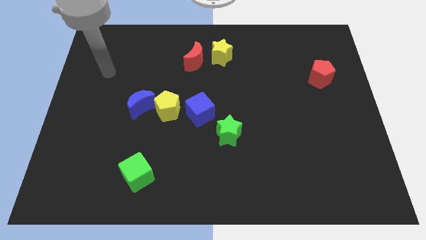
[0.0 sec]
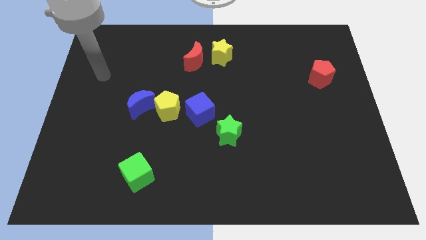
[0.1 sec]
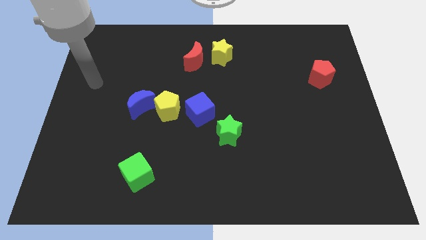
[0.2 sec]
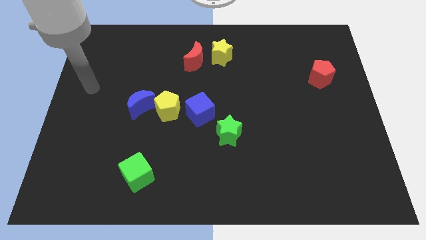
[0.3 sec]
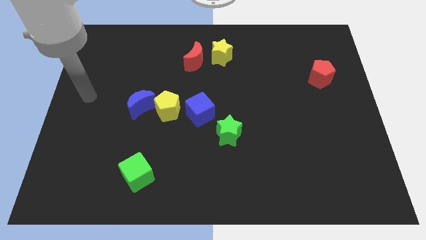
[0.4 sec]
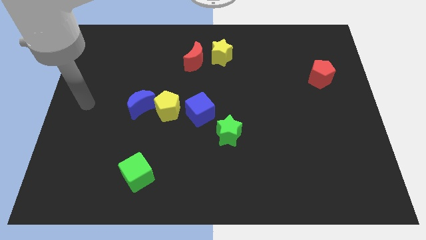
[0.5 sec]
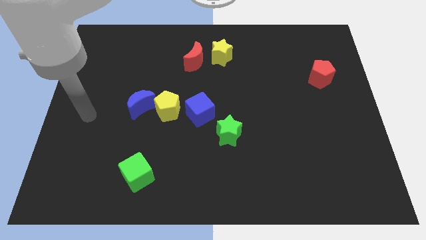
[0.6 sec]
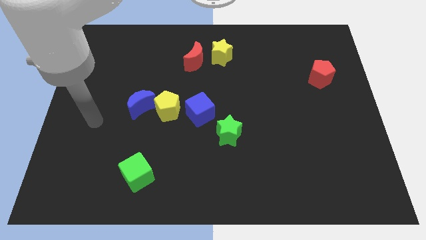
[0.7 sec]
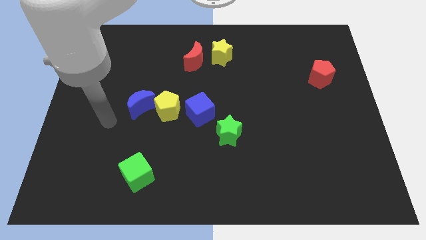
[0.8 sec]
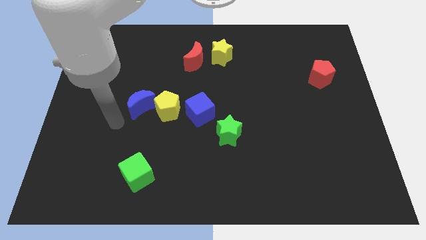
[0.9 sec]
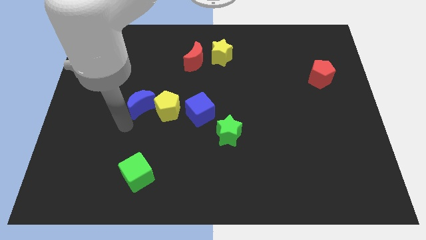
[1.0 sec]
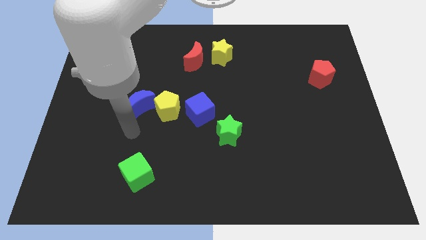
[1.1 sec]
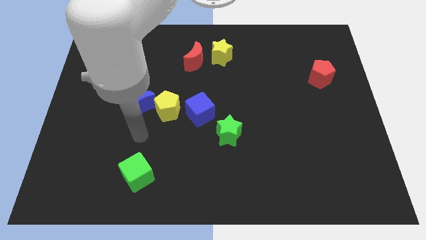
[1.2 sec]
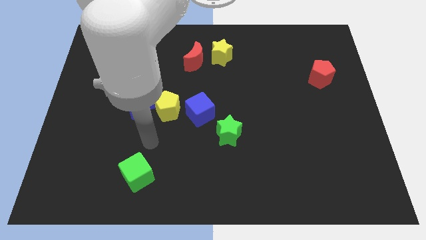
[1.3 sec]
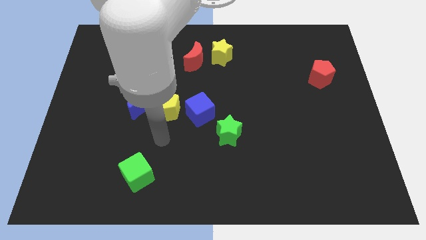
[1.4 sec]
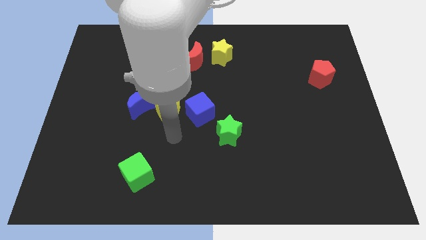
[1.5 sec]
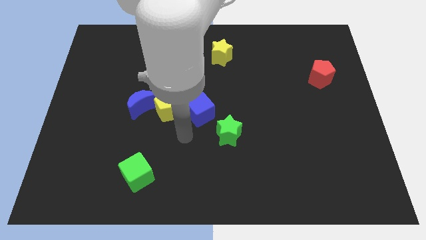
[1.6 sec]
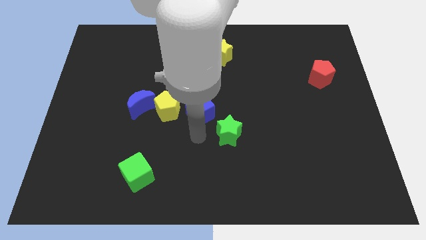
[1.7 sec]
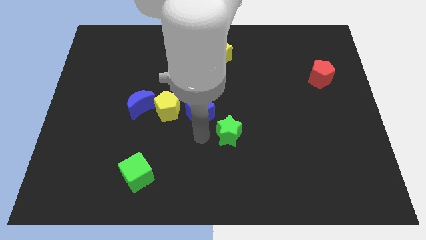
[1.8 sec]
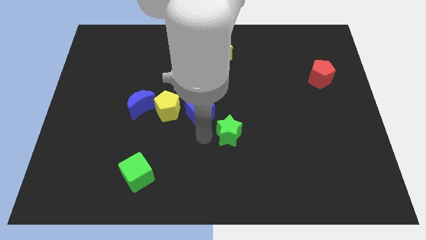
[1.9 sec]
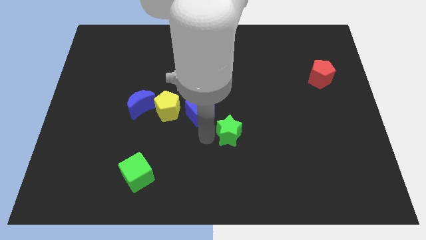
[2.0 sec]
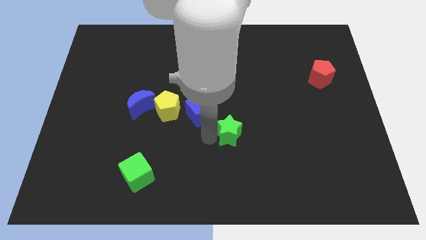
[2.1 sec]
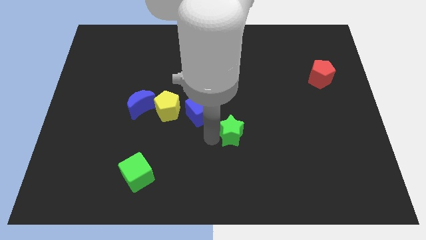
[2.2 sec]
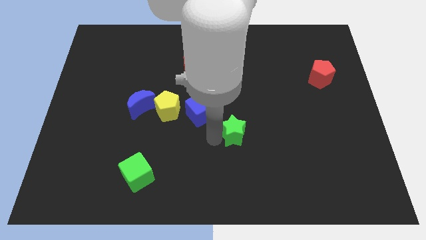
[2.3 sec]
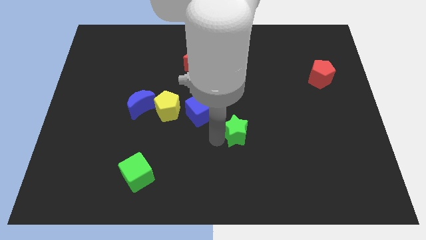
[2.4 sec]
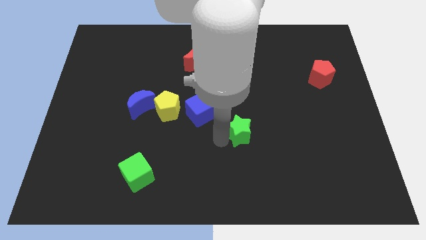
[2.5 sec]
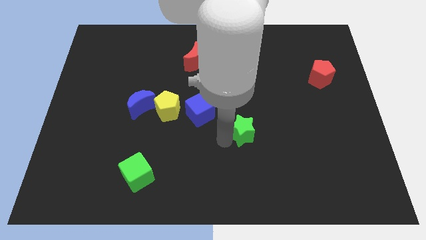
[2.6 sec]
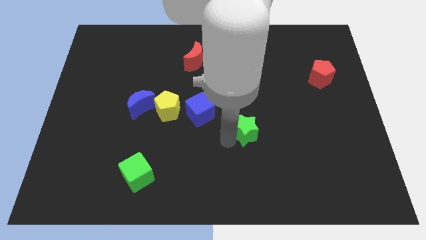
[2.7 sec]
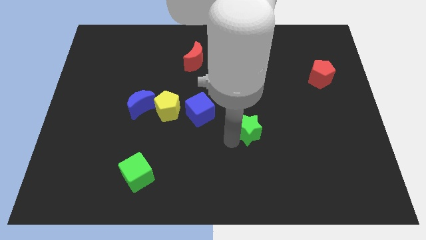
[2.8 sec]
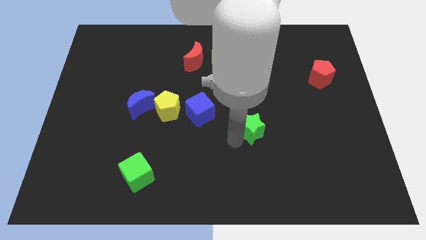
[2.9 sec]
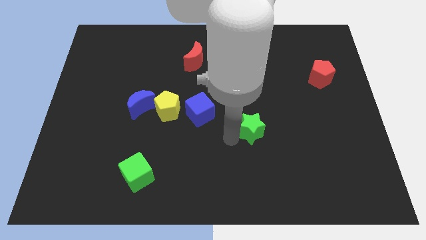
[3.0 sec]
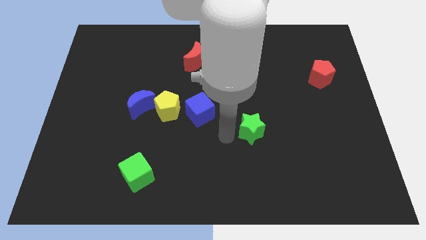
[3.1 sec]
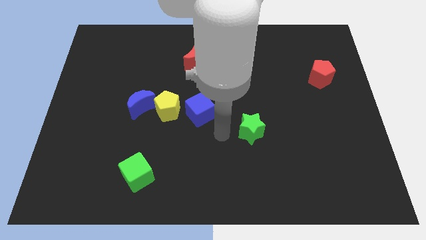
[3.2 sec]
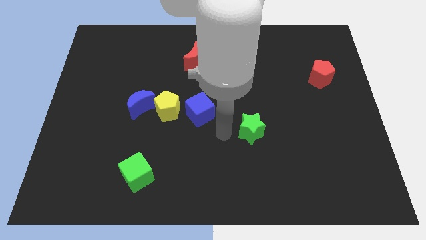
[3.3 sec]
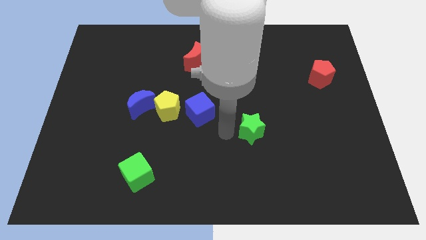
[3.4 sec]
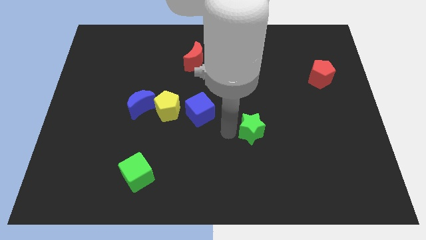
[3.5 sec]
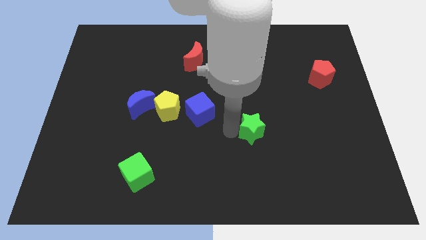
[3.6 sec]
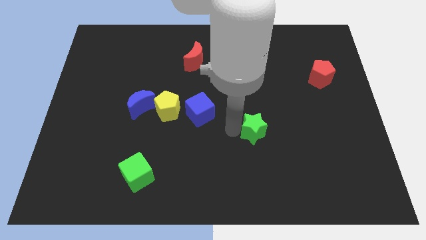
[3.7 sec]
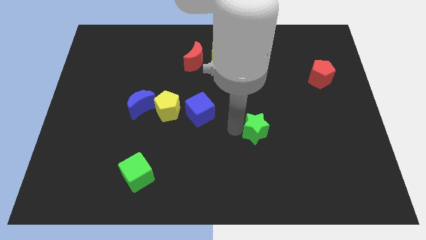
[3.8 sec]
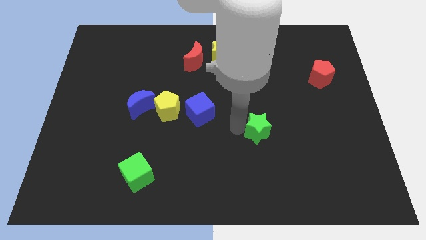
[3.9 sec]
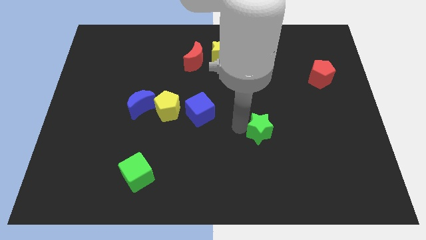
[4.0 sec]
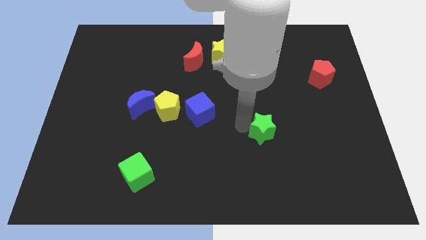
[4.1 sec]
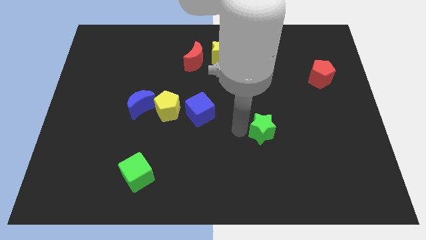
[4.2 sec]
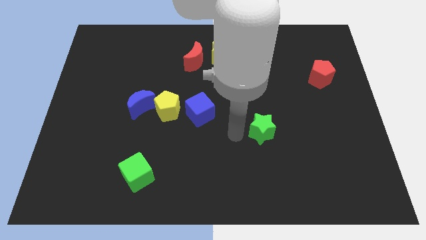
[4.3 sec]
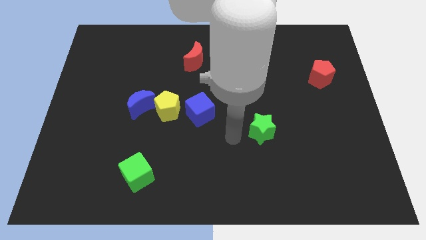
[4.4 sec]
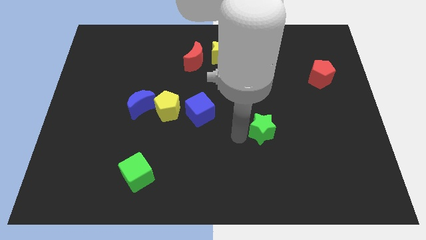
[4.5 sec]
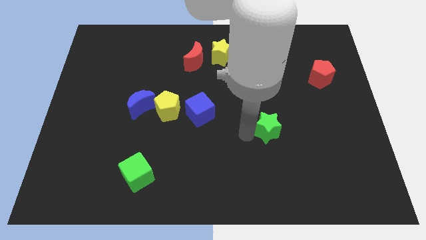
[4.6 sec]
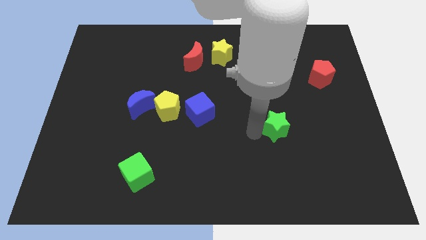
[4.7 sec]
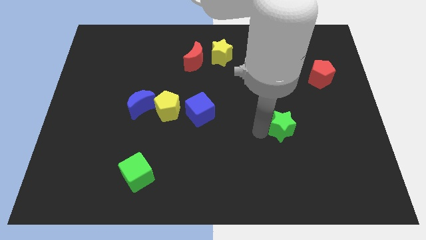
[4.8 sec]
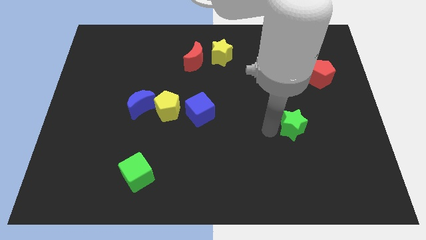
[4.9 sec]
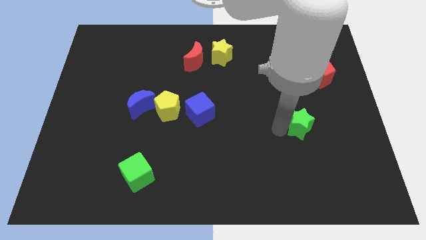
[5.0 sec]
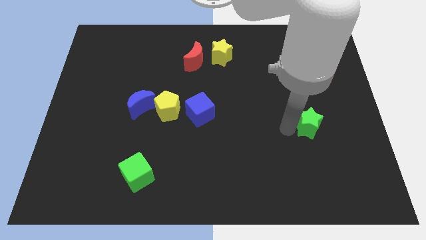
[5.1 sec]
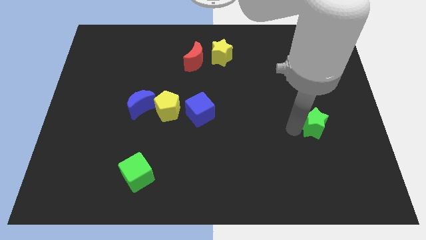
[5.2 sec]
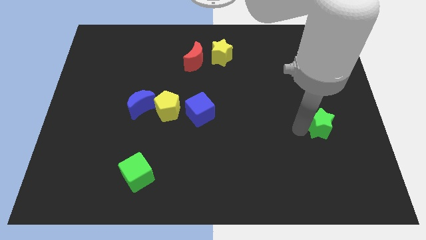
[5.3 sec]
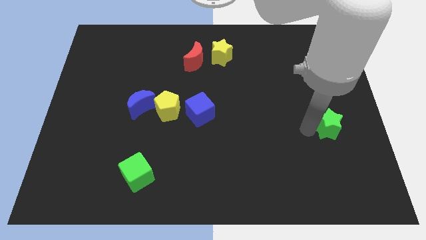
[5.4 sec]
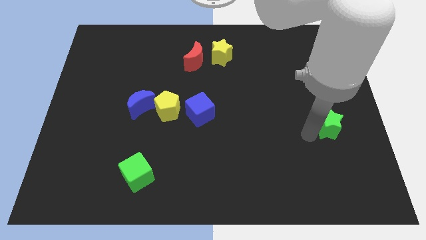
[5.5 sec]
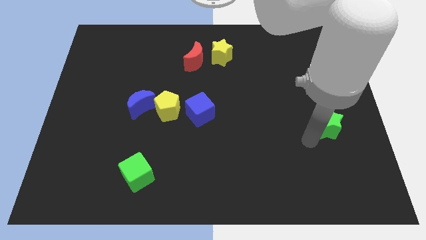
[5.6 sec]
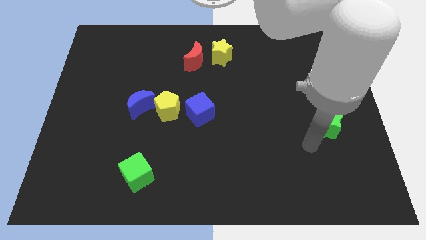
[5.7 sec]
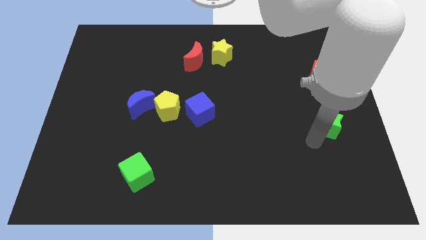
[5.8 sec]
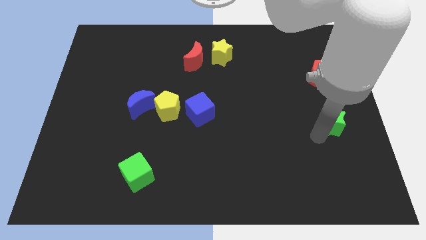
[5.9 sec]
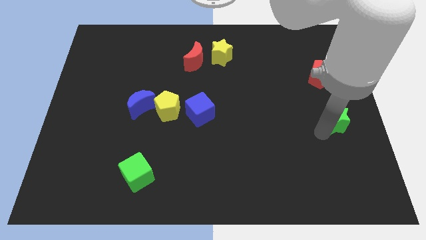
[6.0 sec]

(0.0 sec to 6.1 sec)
put the green star to the right side of the board
